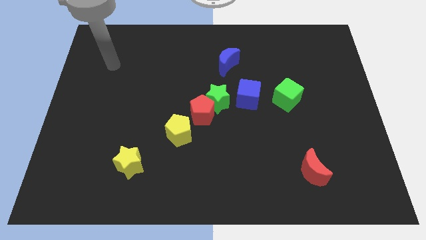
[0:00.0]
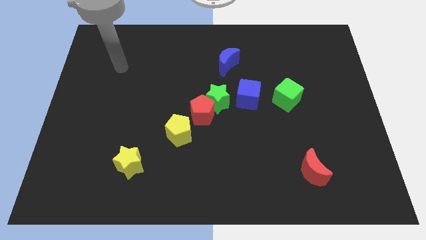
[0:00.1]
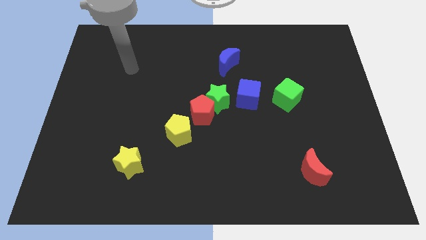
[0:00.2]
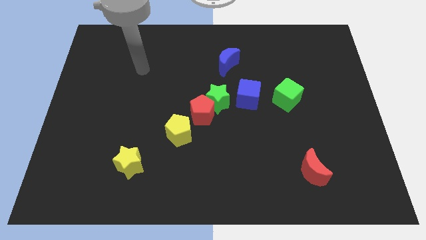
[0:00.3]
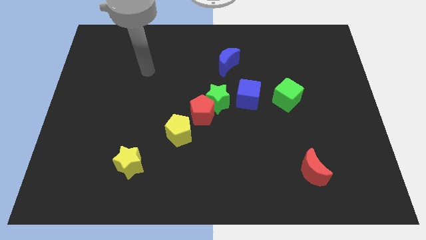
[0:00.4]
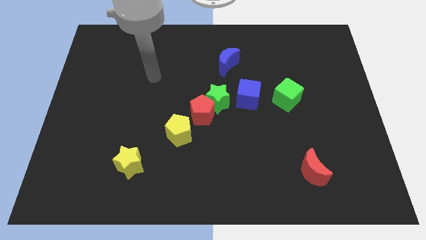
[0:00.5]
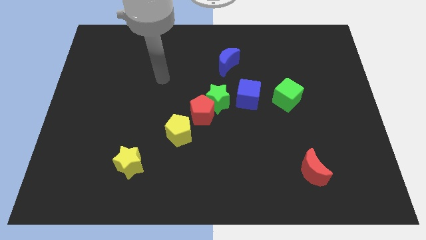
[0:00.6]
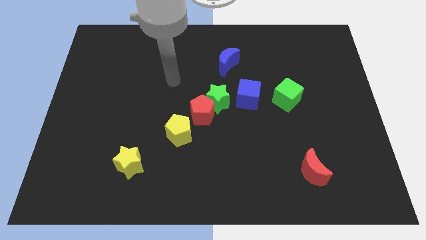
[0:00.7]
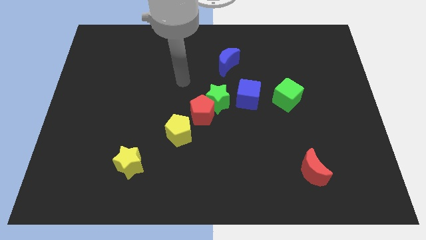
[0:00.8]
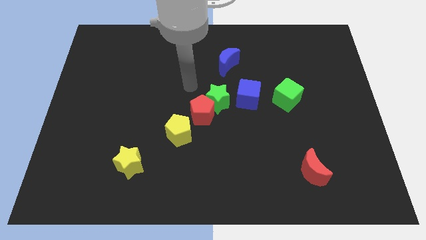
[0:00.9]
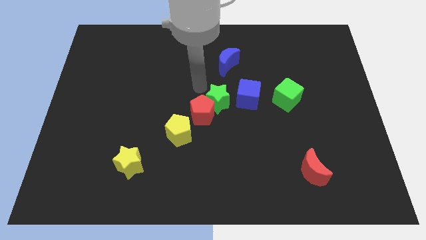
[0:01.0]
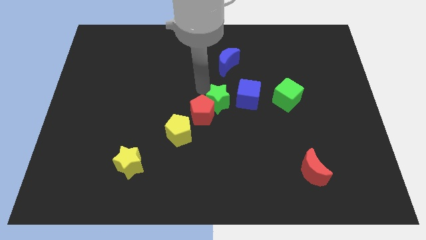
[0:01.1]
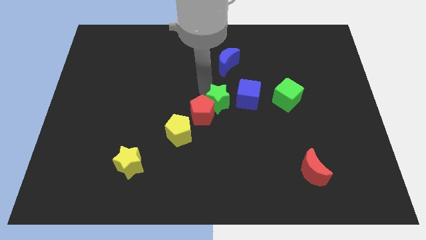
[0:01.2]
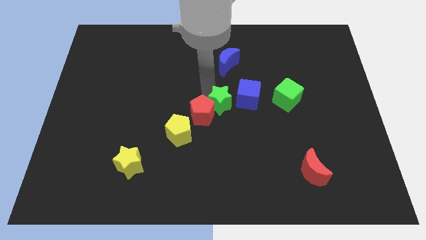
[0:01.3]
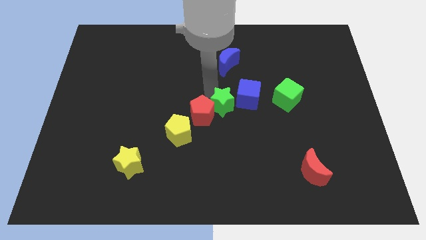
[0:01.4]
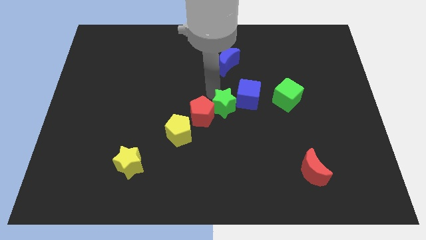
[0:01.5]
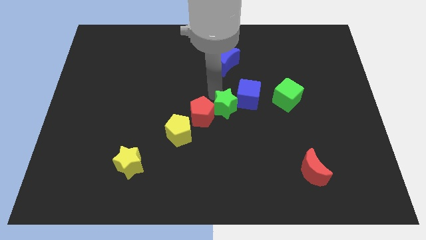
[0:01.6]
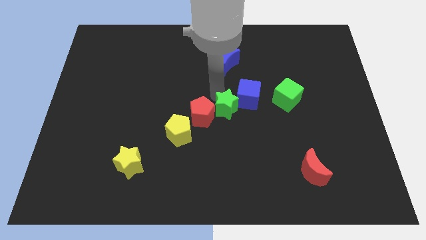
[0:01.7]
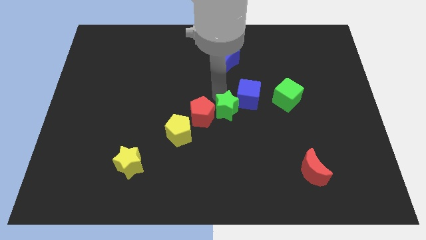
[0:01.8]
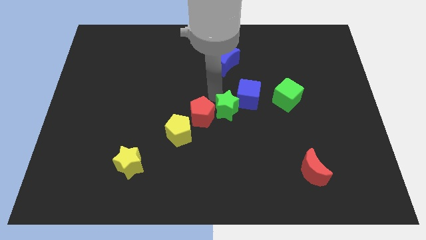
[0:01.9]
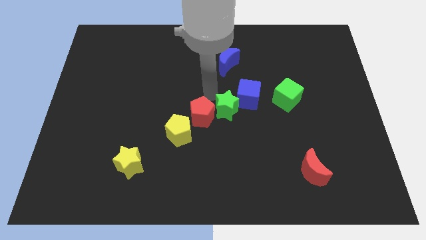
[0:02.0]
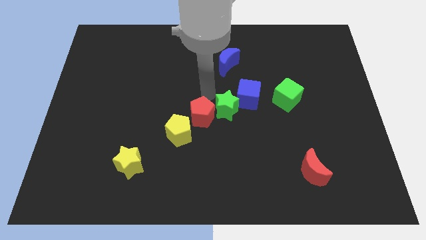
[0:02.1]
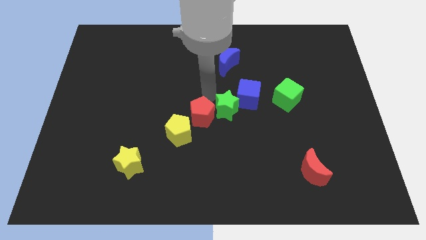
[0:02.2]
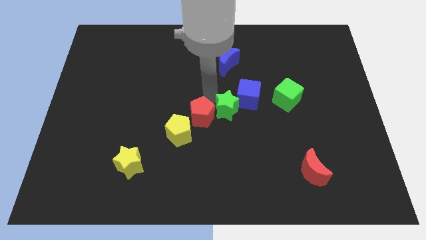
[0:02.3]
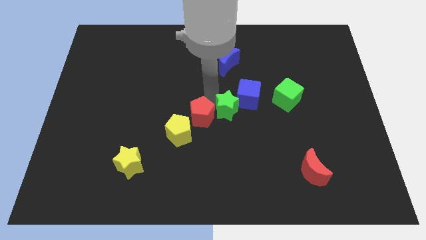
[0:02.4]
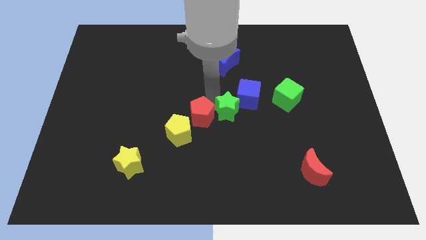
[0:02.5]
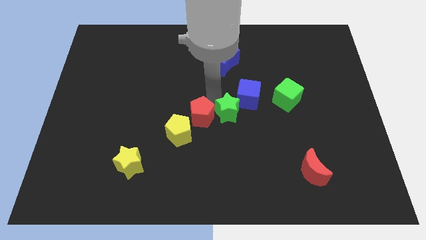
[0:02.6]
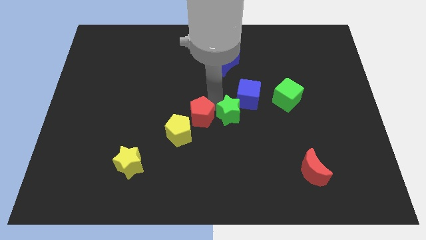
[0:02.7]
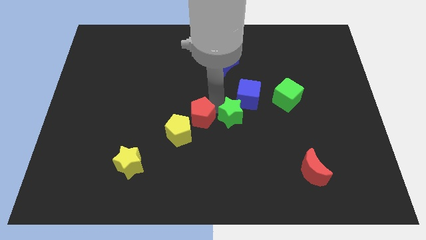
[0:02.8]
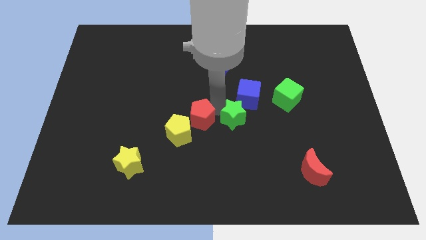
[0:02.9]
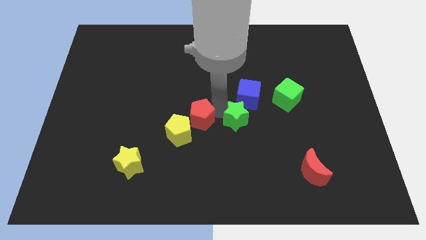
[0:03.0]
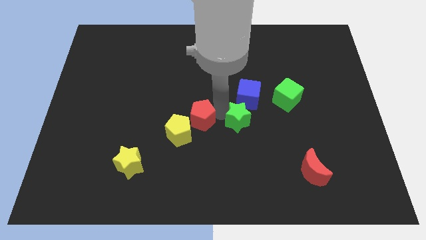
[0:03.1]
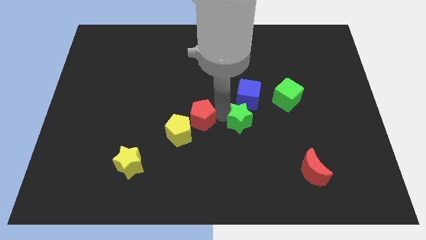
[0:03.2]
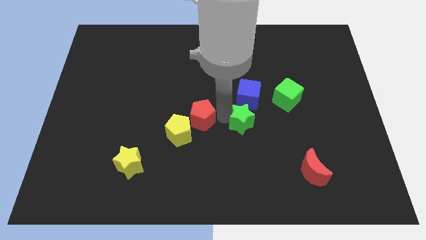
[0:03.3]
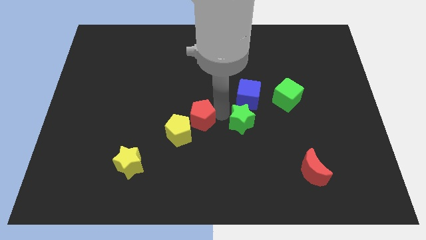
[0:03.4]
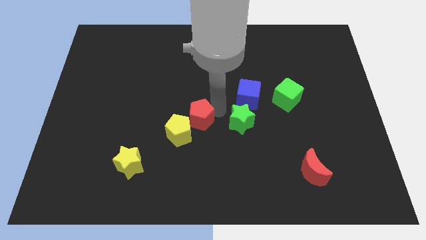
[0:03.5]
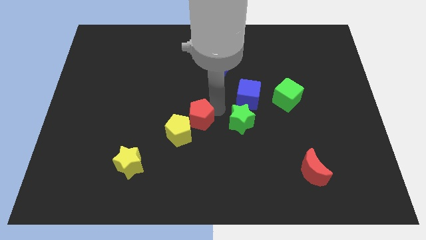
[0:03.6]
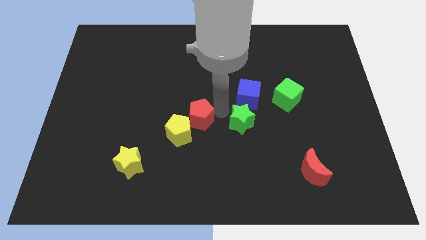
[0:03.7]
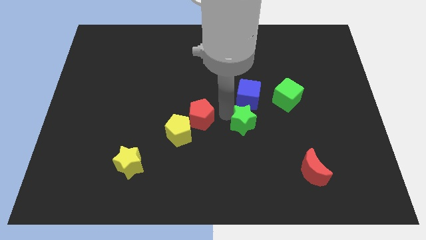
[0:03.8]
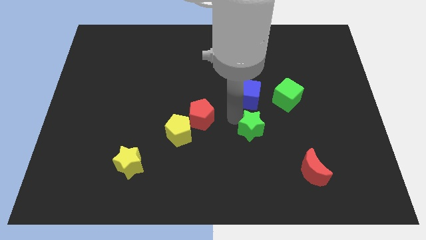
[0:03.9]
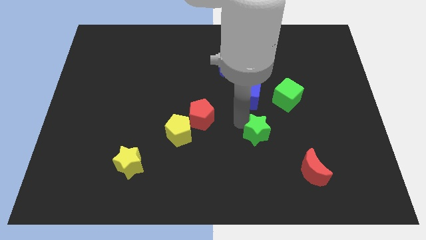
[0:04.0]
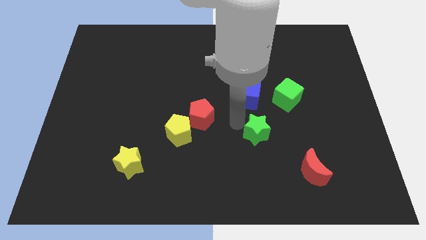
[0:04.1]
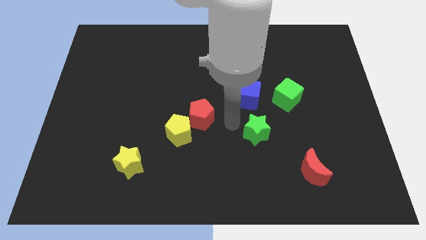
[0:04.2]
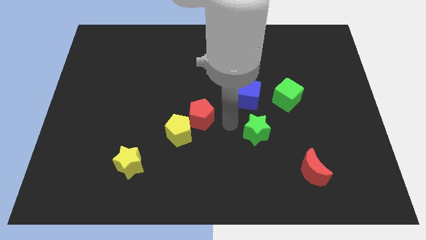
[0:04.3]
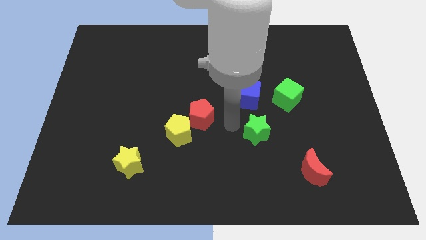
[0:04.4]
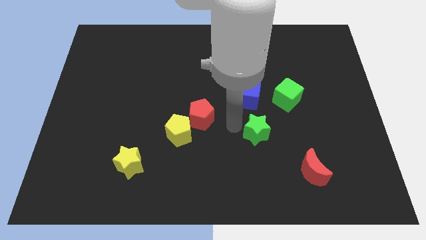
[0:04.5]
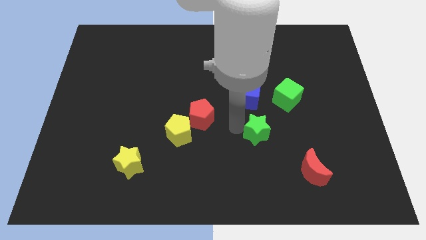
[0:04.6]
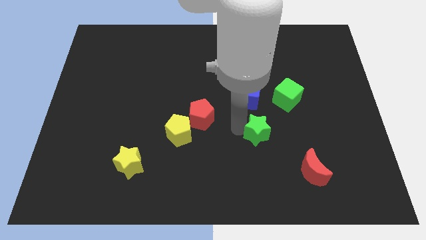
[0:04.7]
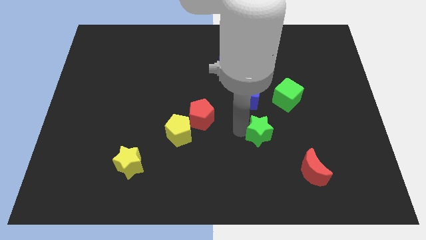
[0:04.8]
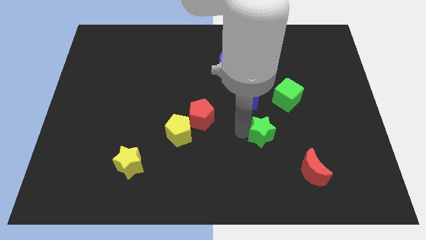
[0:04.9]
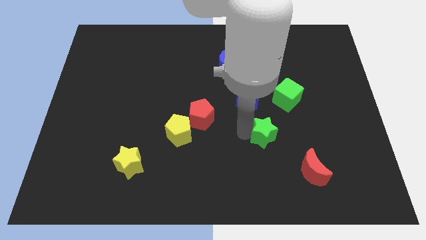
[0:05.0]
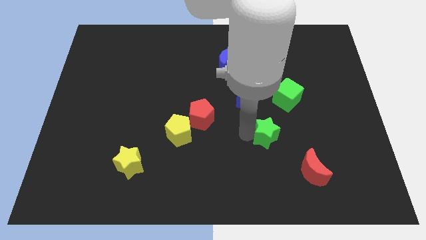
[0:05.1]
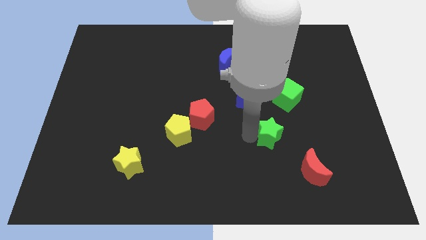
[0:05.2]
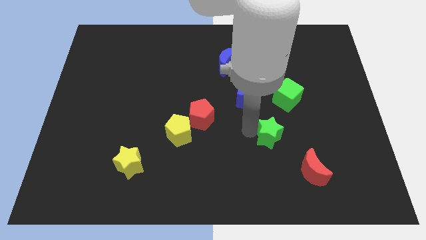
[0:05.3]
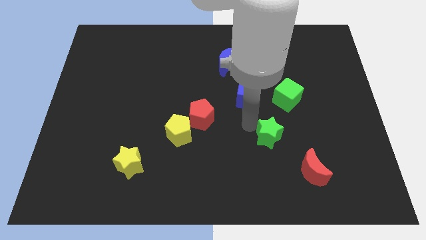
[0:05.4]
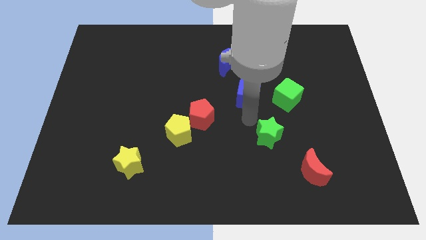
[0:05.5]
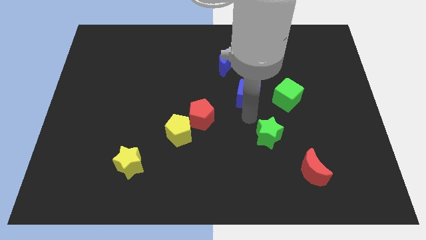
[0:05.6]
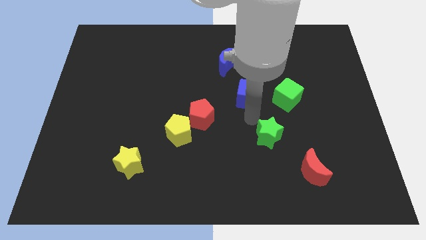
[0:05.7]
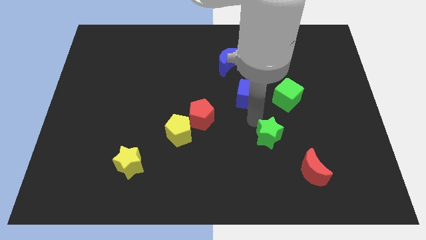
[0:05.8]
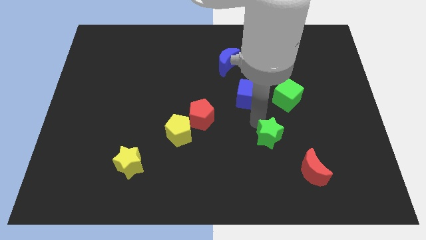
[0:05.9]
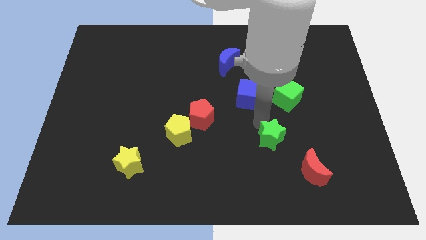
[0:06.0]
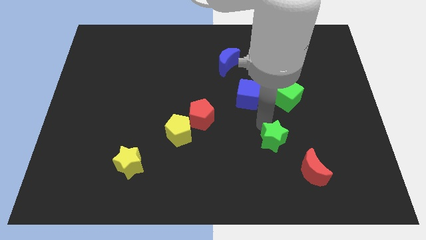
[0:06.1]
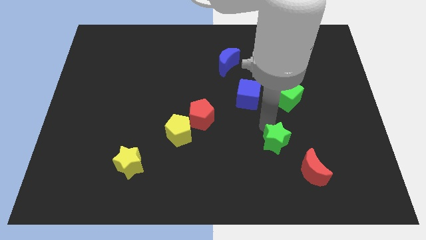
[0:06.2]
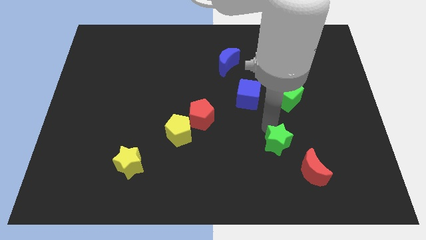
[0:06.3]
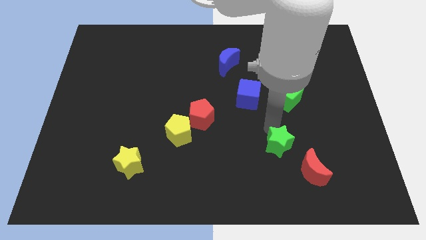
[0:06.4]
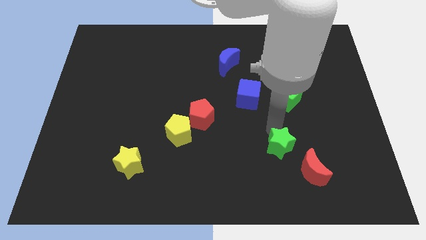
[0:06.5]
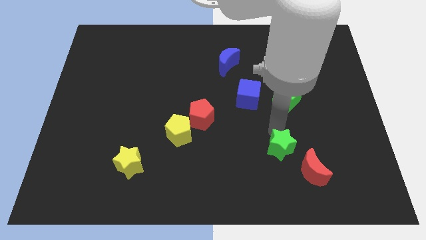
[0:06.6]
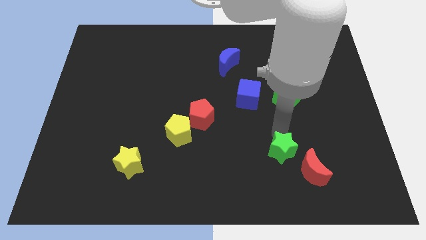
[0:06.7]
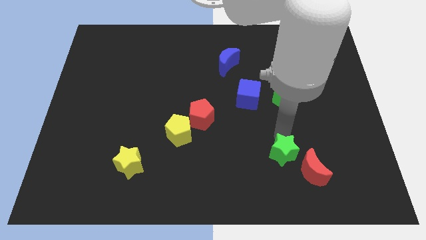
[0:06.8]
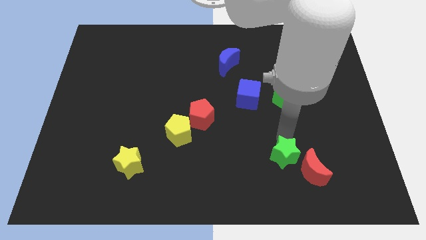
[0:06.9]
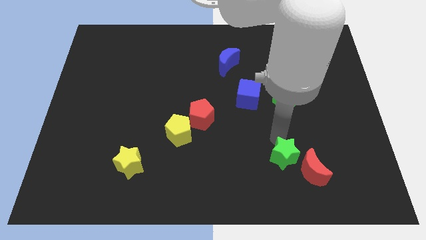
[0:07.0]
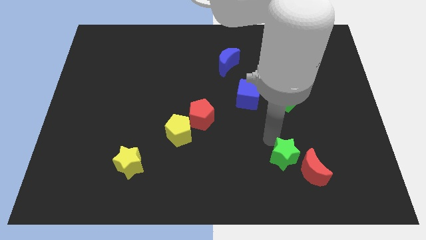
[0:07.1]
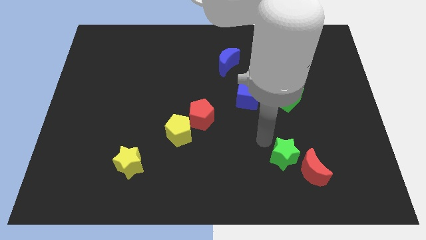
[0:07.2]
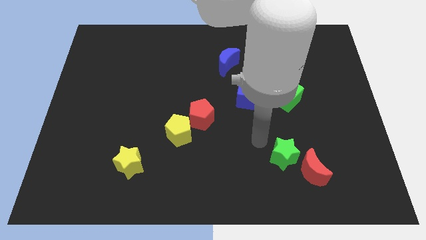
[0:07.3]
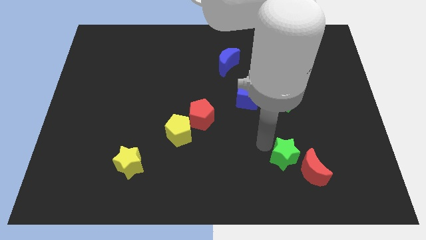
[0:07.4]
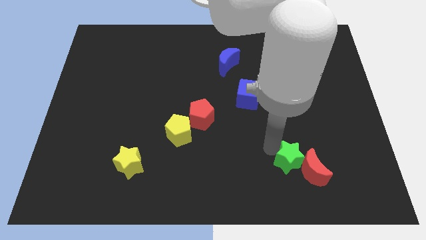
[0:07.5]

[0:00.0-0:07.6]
put the green star close to the red moon
